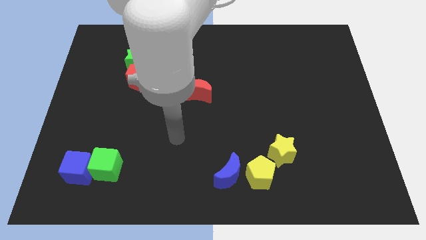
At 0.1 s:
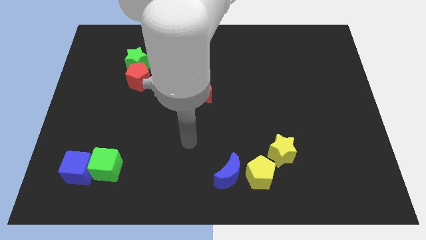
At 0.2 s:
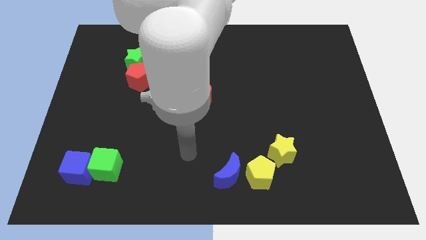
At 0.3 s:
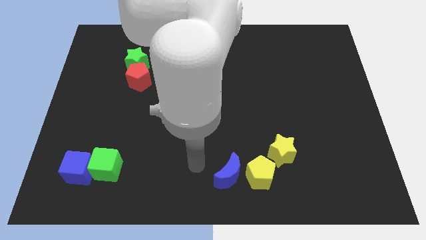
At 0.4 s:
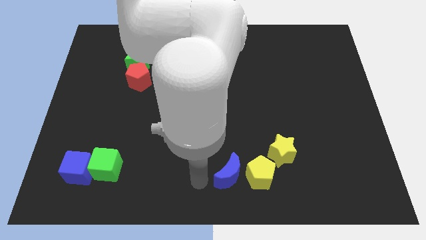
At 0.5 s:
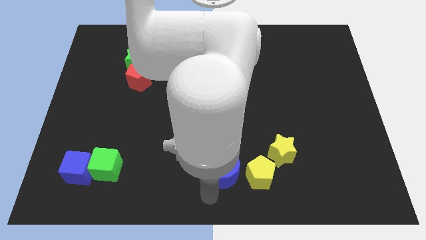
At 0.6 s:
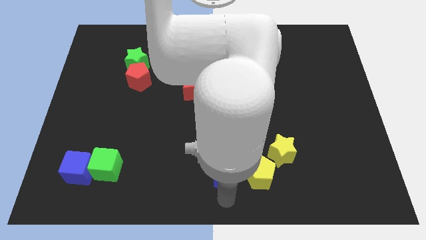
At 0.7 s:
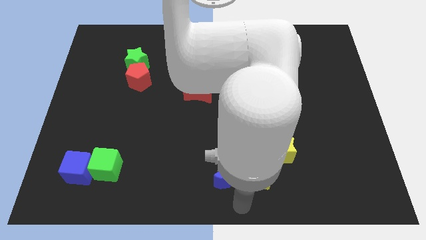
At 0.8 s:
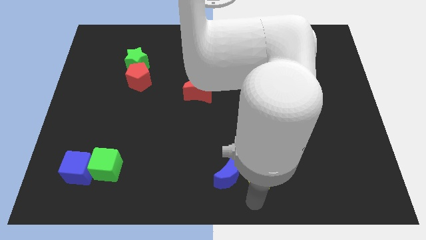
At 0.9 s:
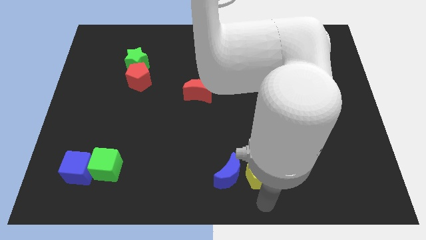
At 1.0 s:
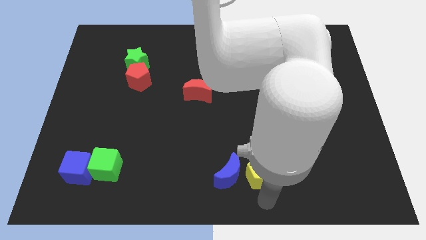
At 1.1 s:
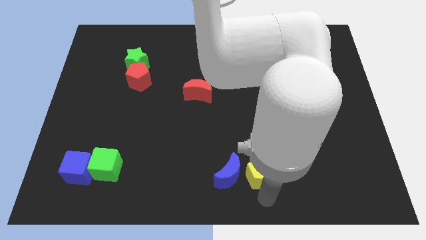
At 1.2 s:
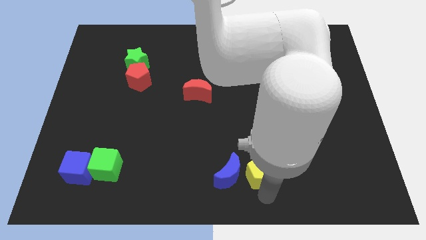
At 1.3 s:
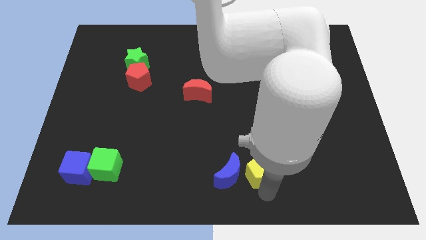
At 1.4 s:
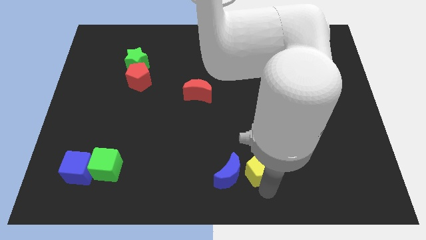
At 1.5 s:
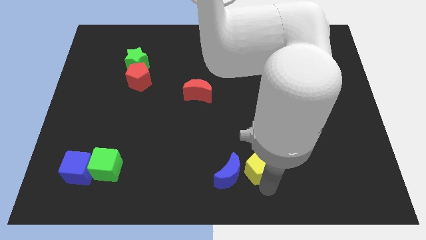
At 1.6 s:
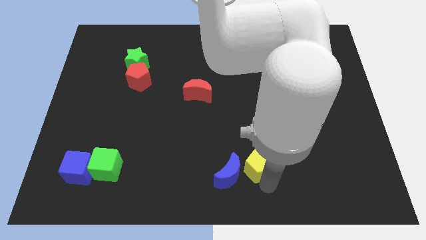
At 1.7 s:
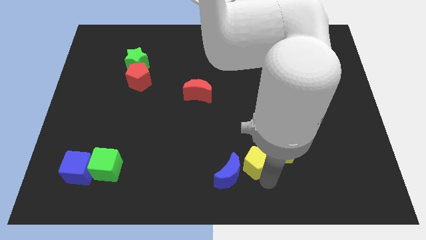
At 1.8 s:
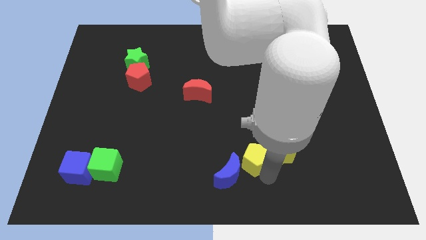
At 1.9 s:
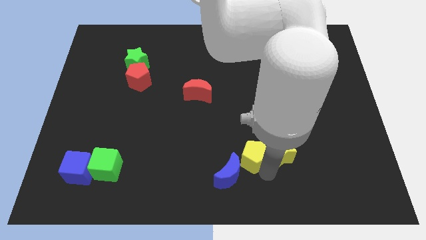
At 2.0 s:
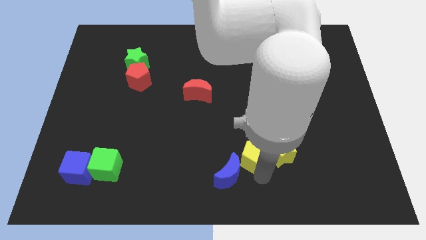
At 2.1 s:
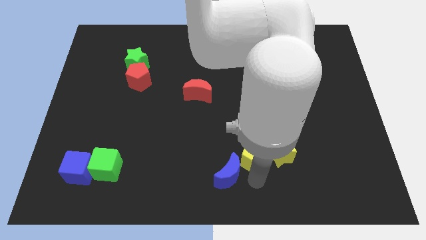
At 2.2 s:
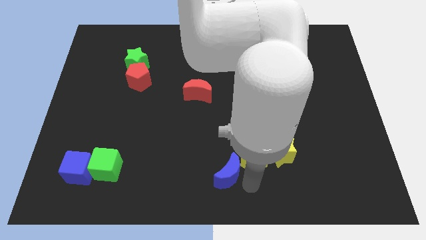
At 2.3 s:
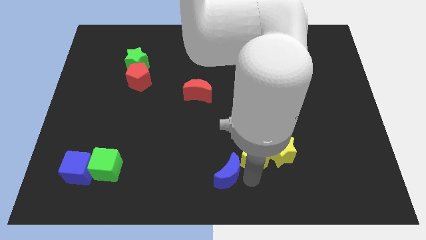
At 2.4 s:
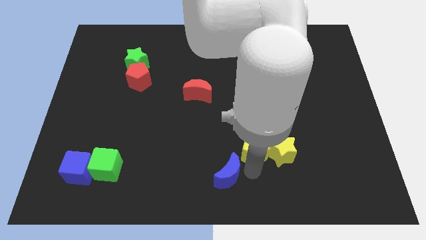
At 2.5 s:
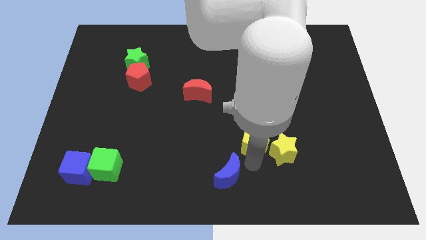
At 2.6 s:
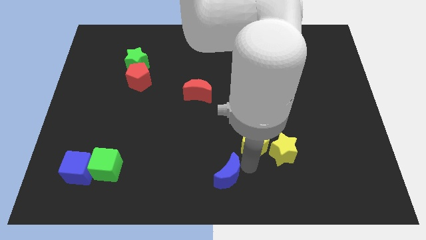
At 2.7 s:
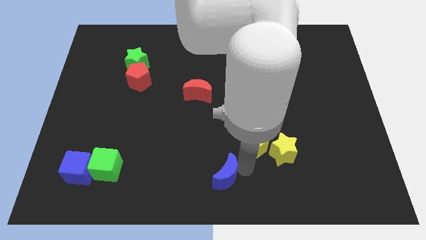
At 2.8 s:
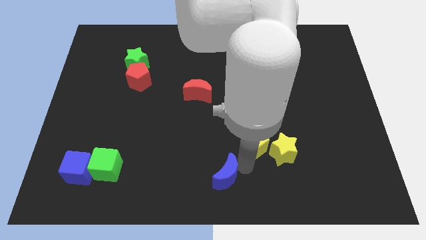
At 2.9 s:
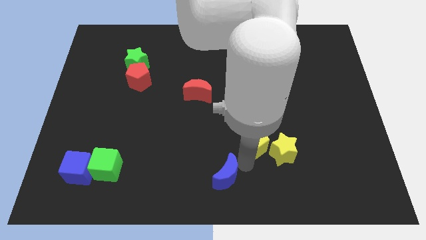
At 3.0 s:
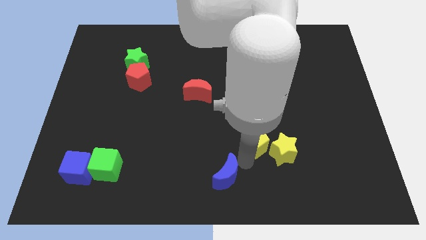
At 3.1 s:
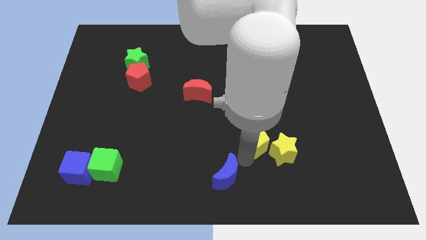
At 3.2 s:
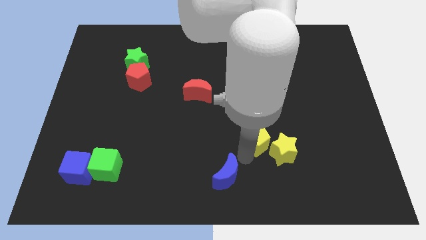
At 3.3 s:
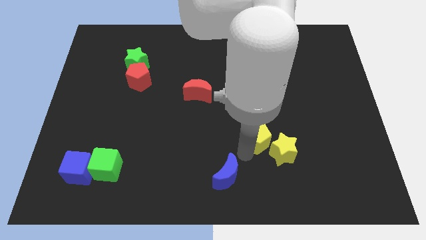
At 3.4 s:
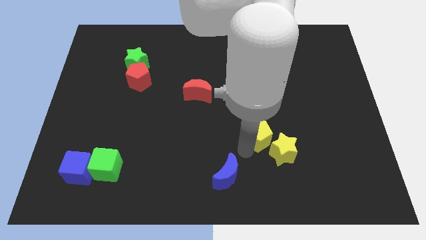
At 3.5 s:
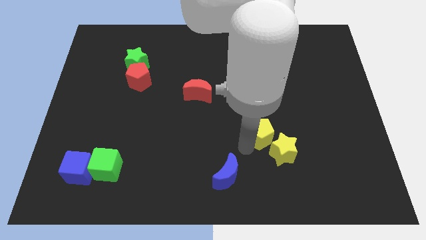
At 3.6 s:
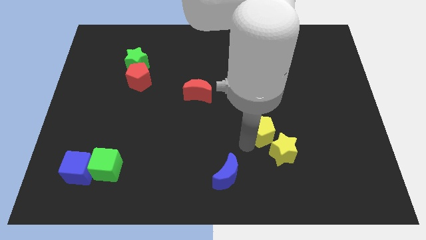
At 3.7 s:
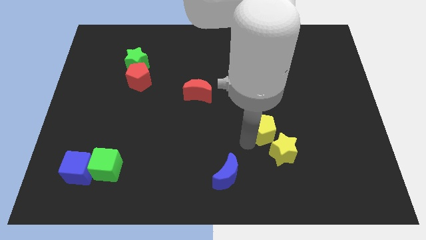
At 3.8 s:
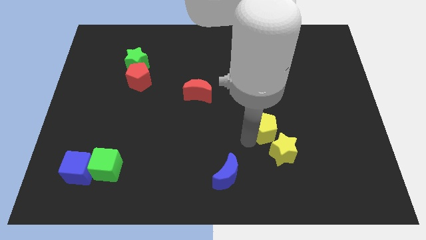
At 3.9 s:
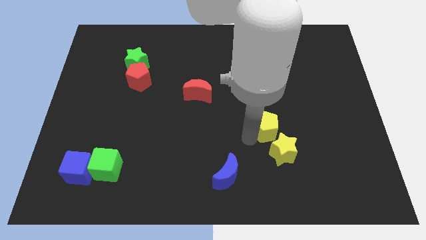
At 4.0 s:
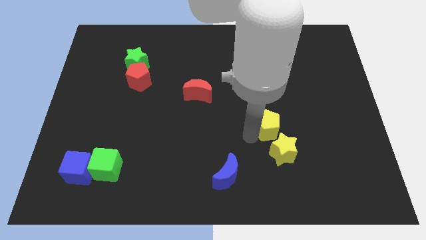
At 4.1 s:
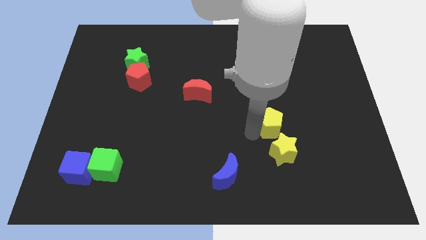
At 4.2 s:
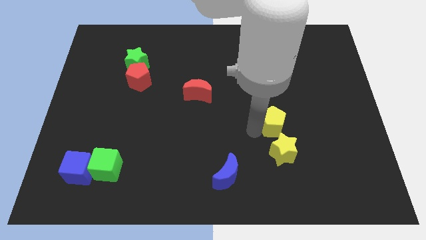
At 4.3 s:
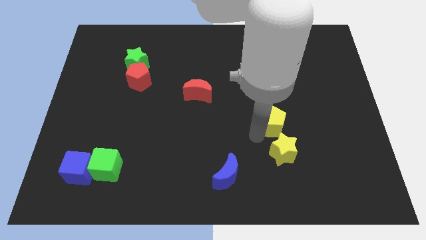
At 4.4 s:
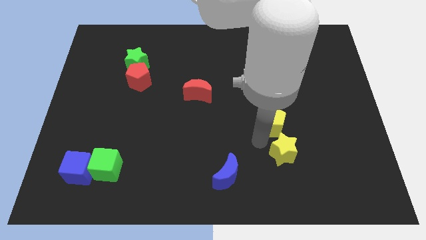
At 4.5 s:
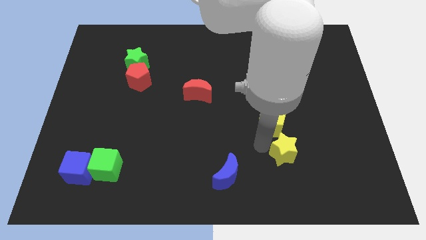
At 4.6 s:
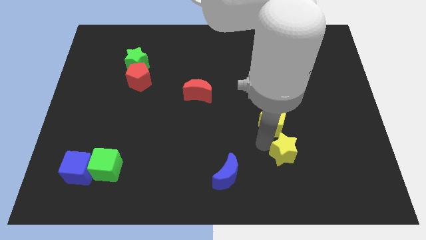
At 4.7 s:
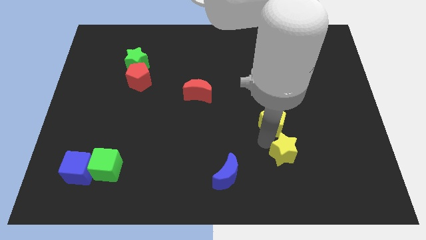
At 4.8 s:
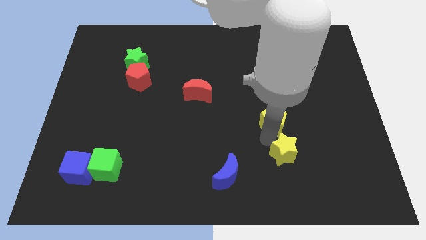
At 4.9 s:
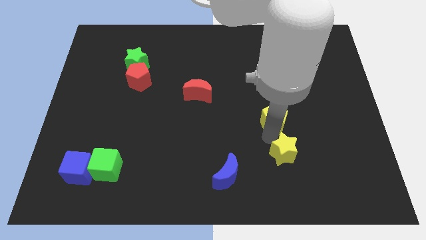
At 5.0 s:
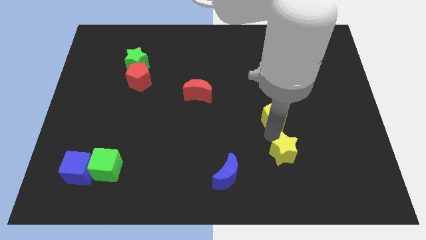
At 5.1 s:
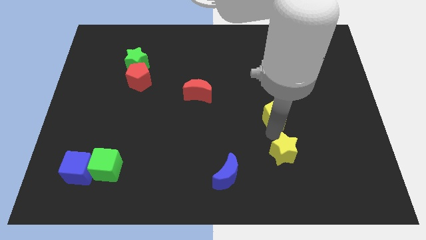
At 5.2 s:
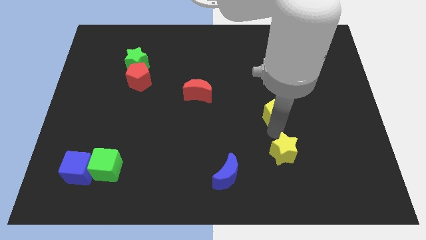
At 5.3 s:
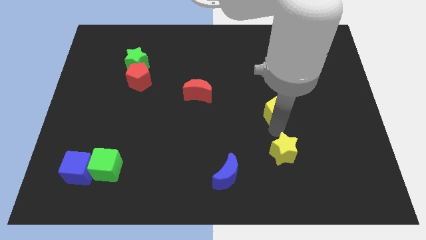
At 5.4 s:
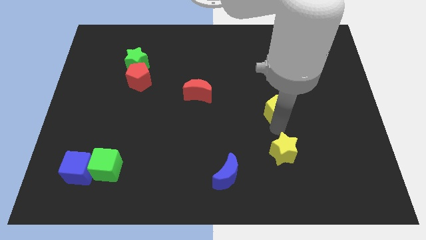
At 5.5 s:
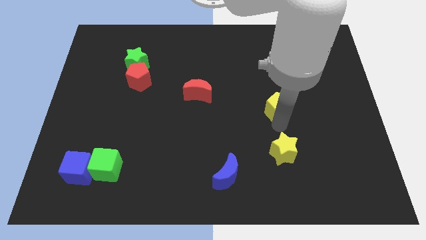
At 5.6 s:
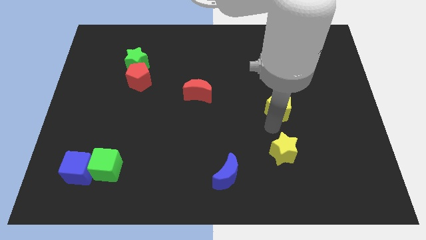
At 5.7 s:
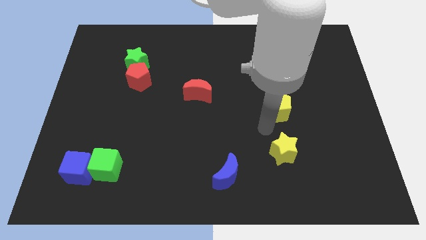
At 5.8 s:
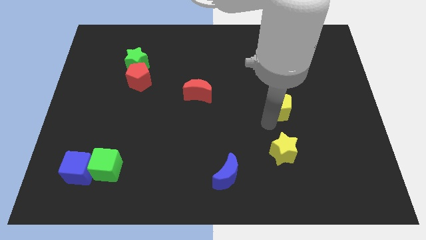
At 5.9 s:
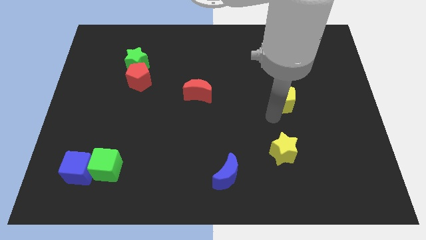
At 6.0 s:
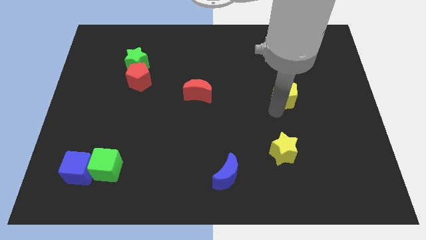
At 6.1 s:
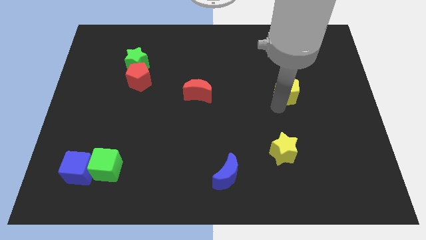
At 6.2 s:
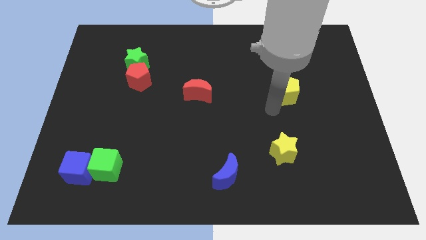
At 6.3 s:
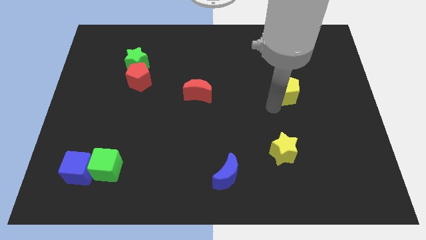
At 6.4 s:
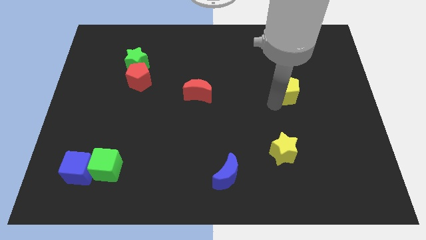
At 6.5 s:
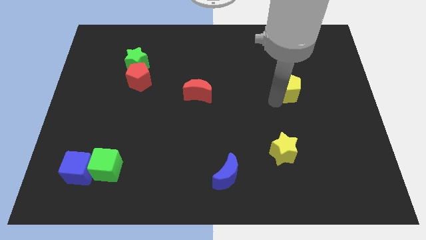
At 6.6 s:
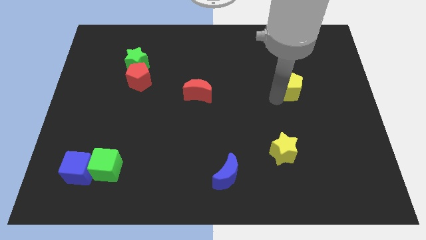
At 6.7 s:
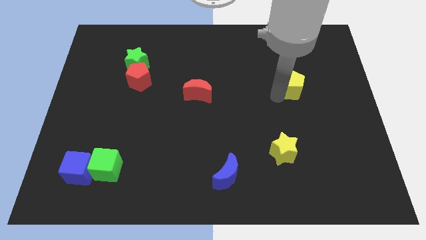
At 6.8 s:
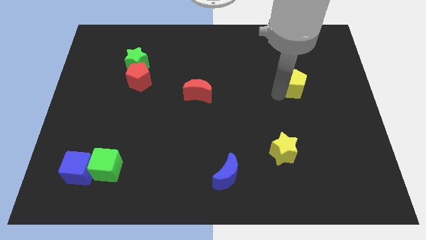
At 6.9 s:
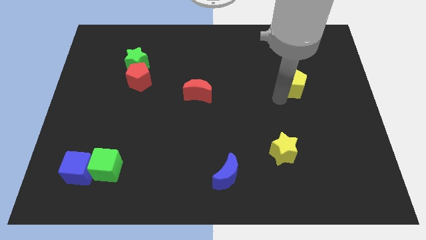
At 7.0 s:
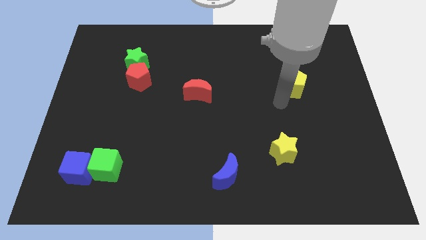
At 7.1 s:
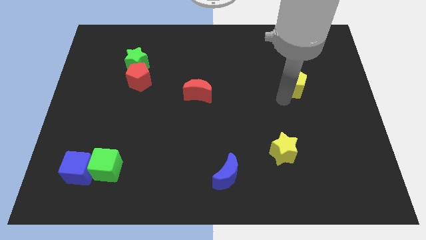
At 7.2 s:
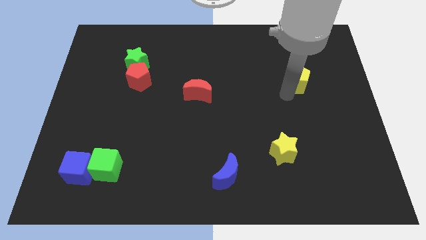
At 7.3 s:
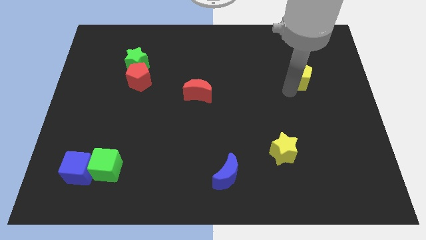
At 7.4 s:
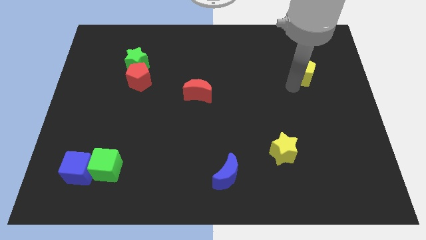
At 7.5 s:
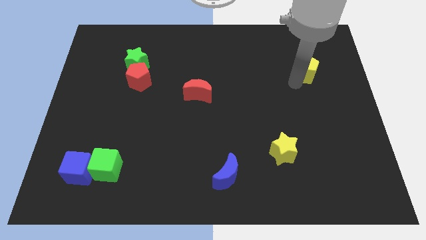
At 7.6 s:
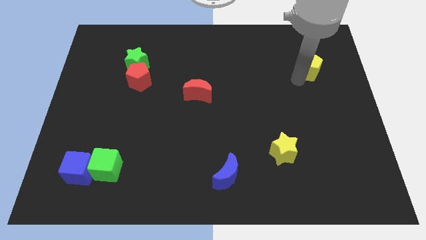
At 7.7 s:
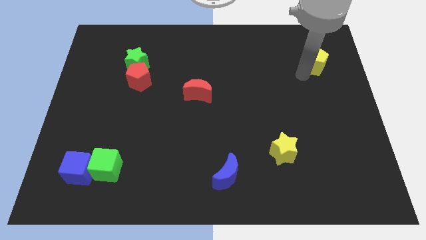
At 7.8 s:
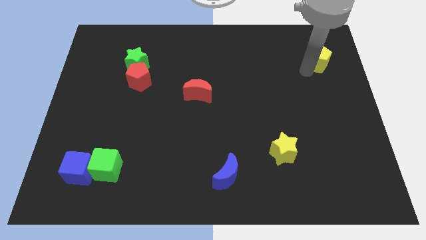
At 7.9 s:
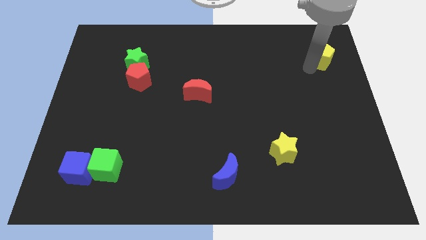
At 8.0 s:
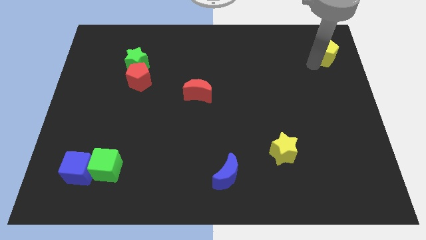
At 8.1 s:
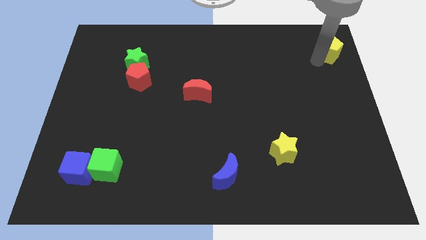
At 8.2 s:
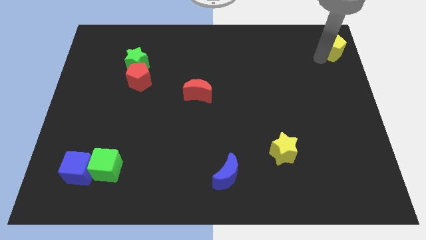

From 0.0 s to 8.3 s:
put the yellow pentagon to the upper right corner
